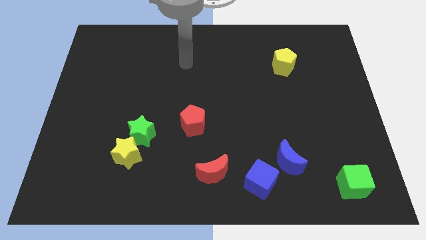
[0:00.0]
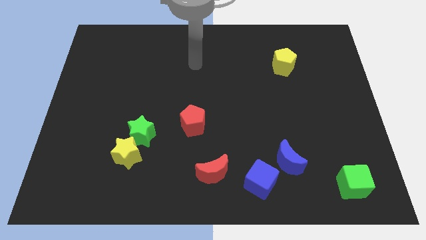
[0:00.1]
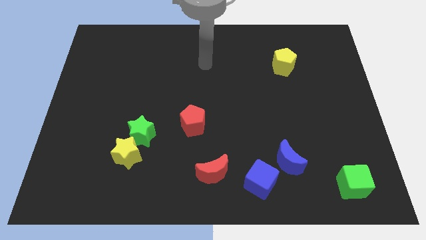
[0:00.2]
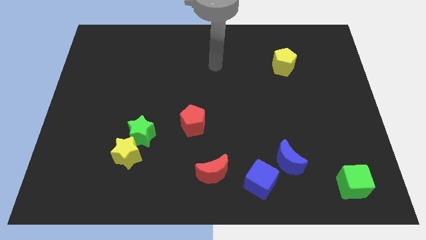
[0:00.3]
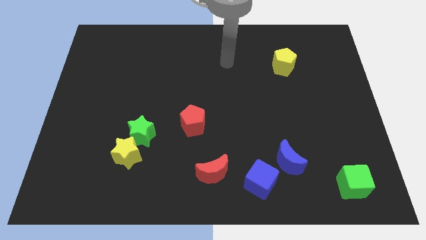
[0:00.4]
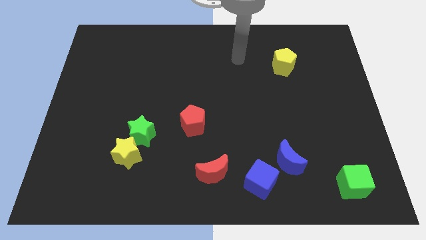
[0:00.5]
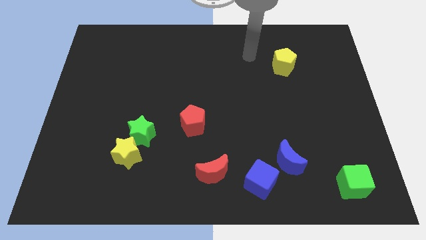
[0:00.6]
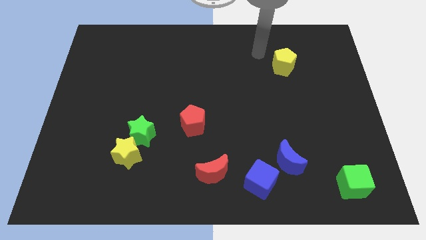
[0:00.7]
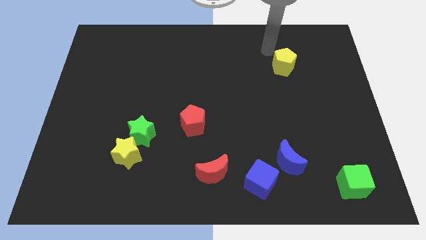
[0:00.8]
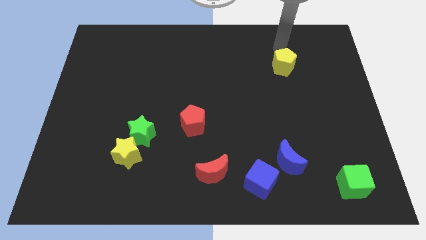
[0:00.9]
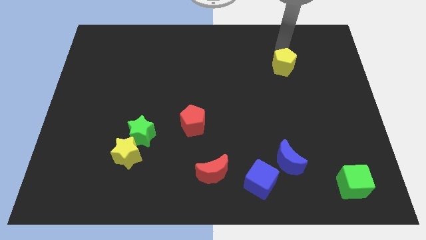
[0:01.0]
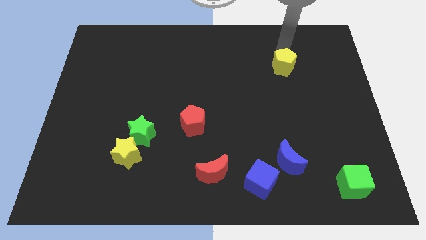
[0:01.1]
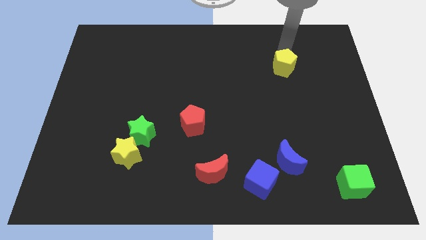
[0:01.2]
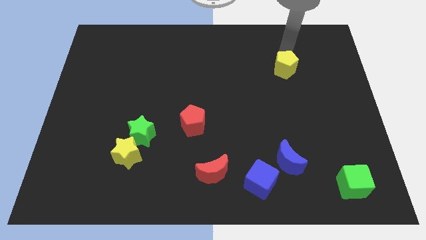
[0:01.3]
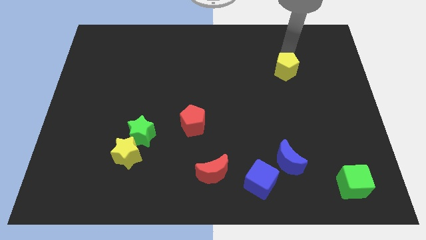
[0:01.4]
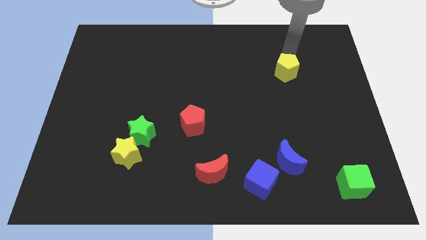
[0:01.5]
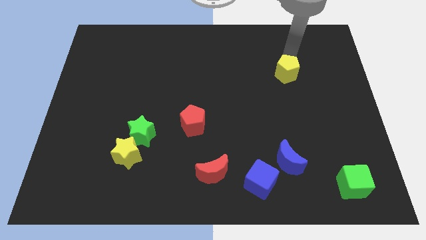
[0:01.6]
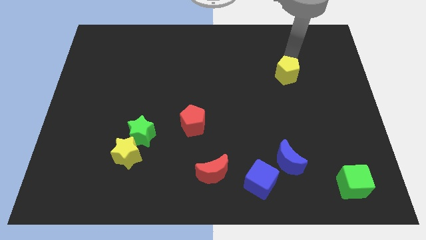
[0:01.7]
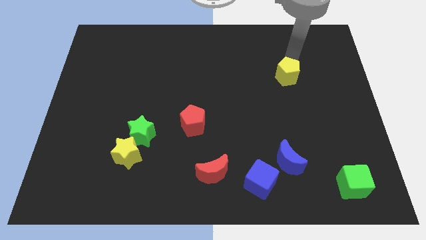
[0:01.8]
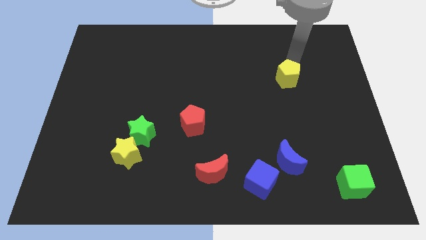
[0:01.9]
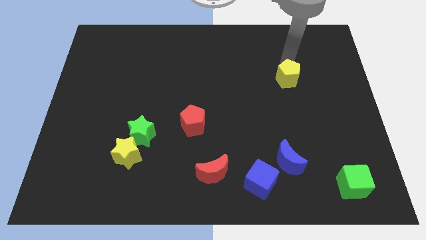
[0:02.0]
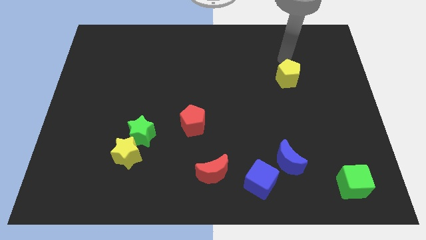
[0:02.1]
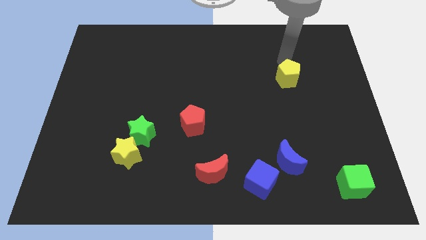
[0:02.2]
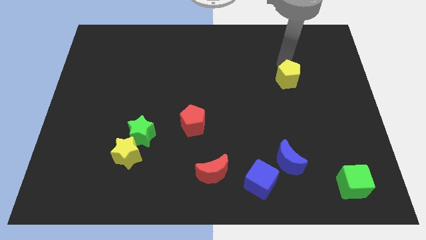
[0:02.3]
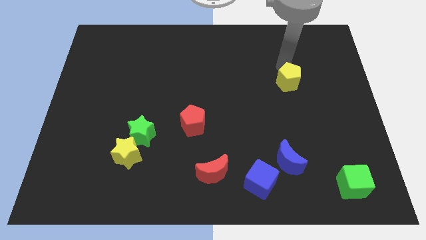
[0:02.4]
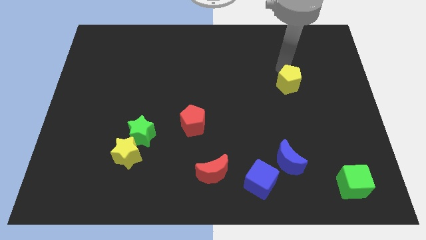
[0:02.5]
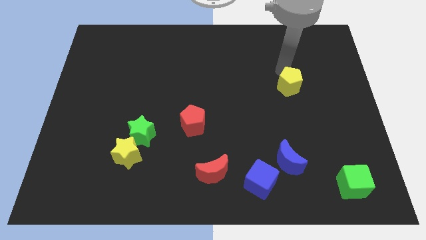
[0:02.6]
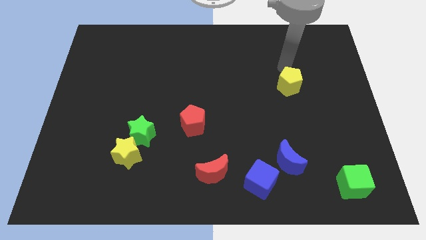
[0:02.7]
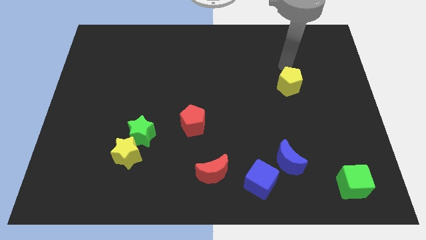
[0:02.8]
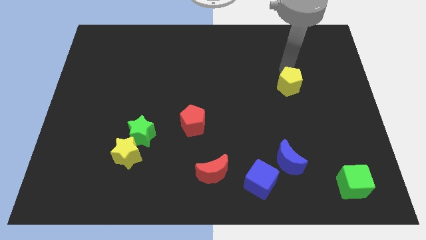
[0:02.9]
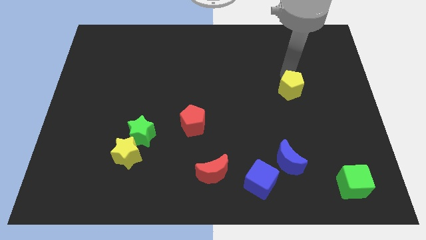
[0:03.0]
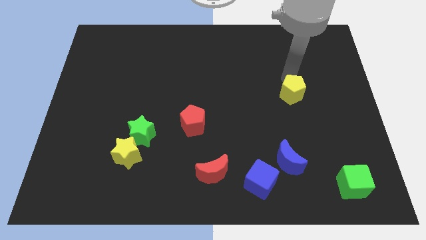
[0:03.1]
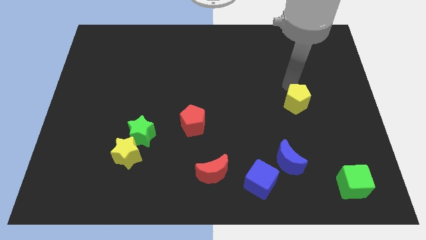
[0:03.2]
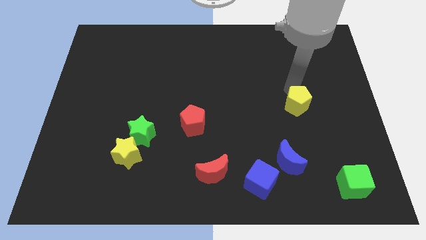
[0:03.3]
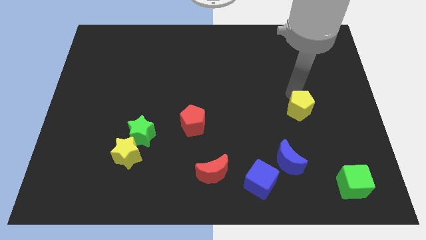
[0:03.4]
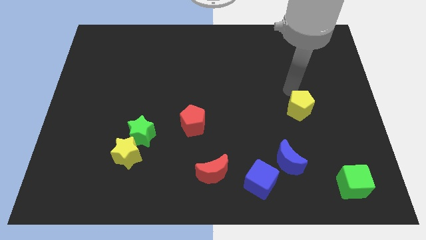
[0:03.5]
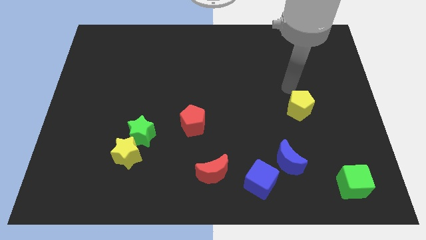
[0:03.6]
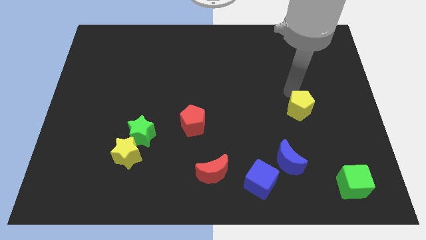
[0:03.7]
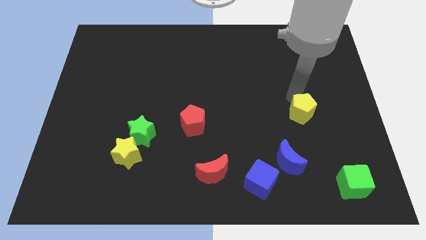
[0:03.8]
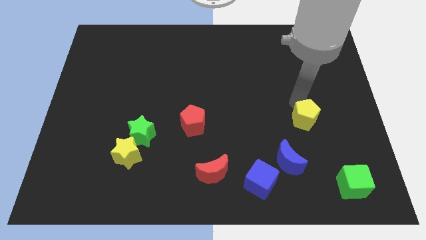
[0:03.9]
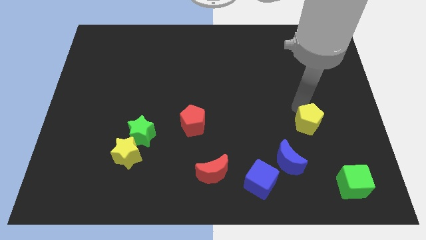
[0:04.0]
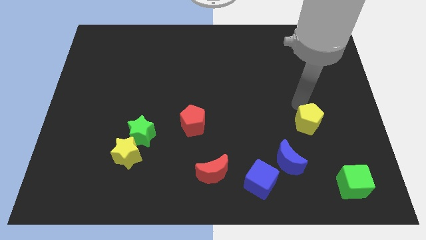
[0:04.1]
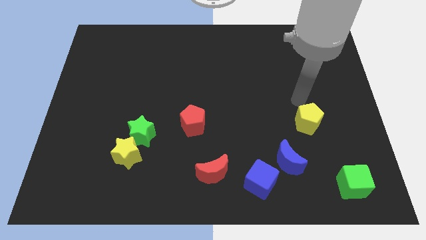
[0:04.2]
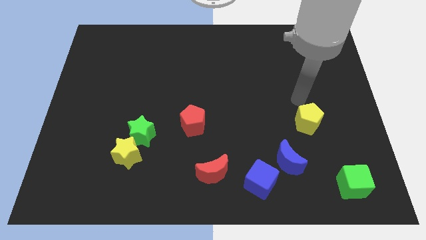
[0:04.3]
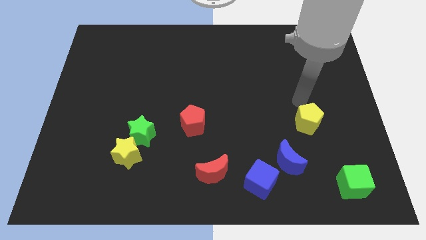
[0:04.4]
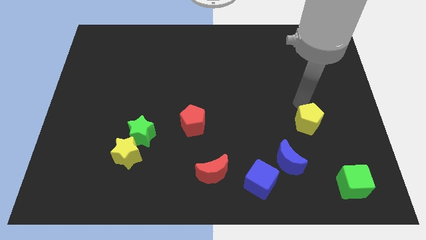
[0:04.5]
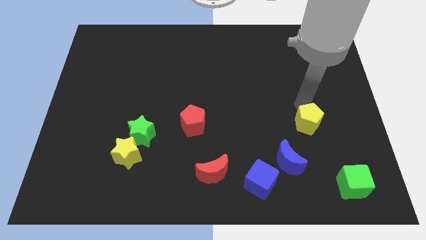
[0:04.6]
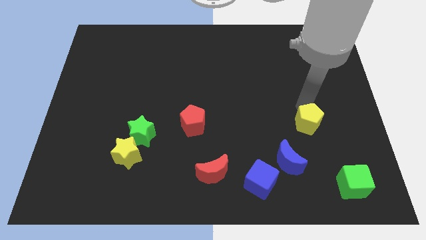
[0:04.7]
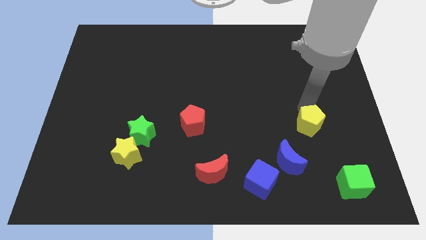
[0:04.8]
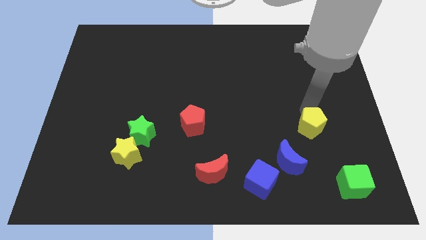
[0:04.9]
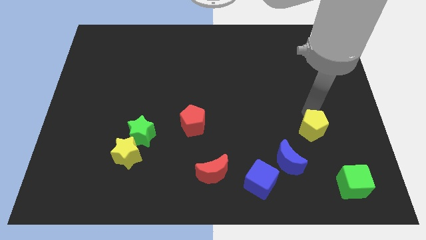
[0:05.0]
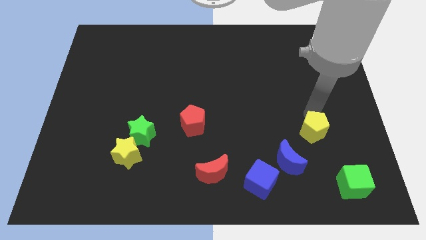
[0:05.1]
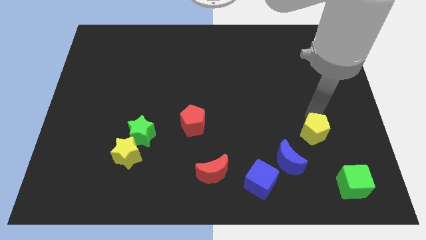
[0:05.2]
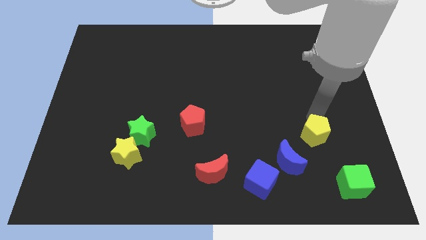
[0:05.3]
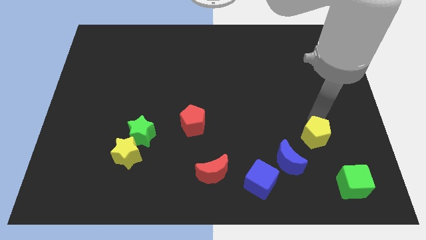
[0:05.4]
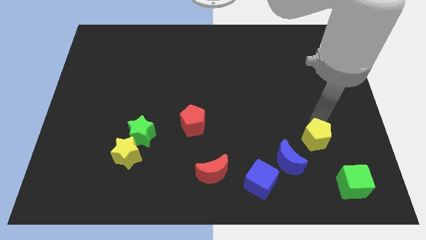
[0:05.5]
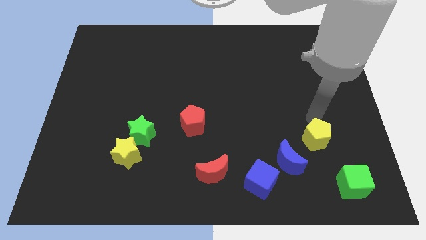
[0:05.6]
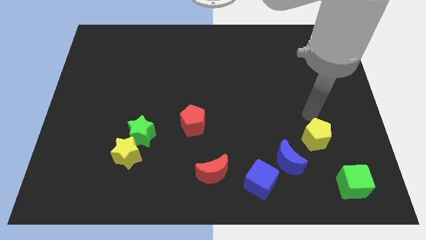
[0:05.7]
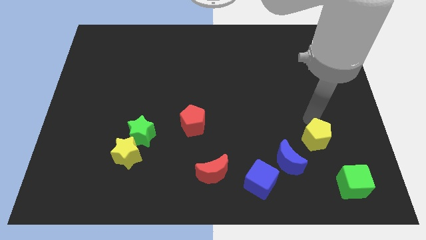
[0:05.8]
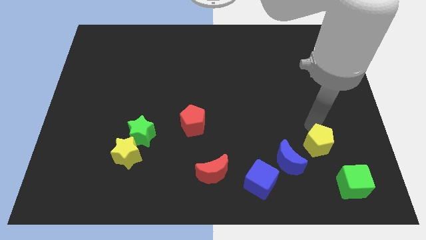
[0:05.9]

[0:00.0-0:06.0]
move the yellow pentagon to the top left of the green cube

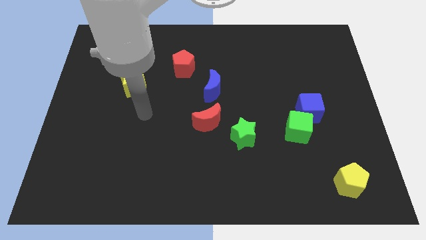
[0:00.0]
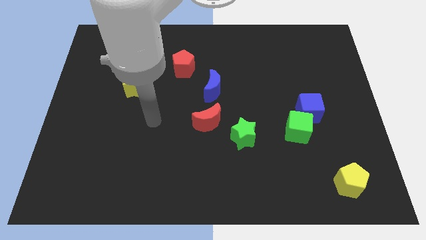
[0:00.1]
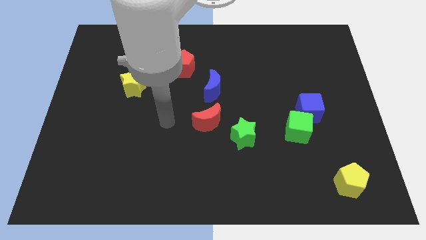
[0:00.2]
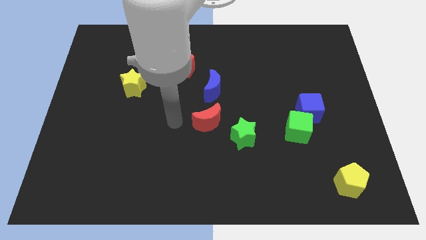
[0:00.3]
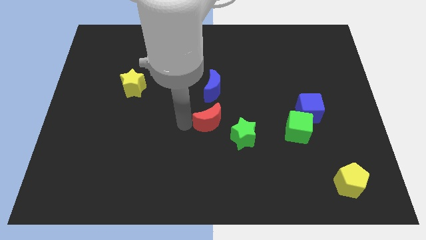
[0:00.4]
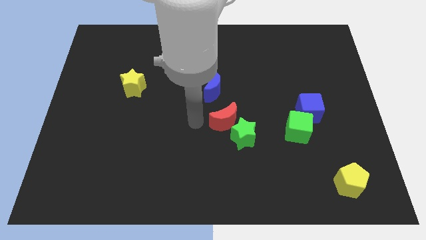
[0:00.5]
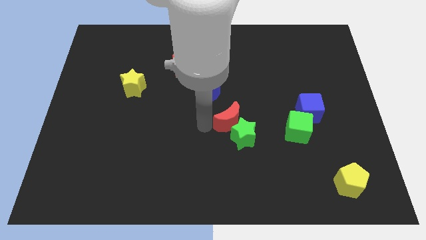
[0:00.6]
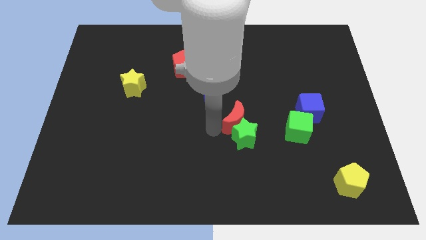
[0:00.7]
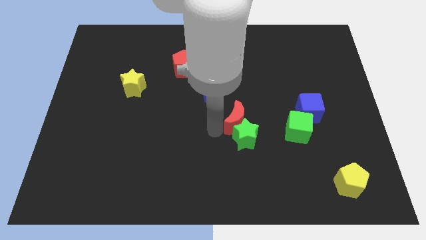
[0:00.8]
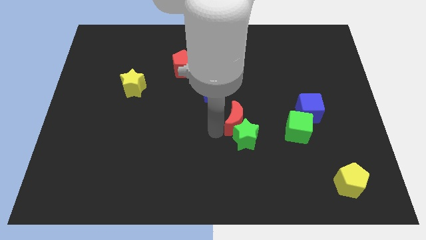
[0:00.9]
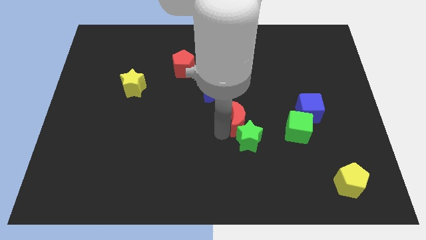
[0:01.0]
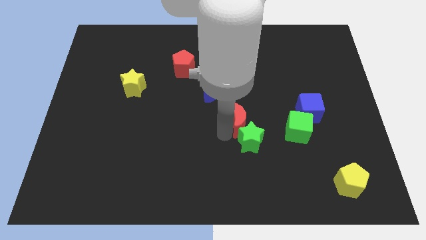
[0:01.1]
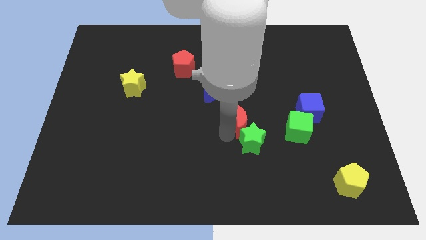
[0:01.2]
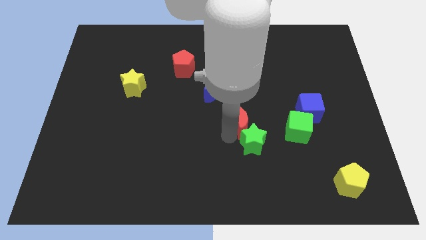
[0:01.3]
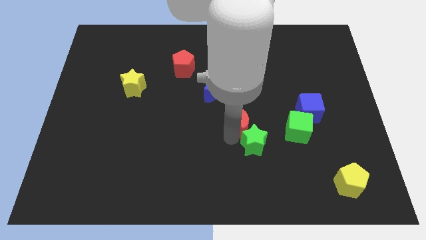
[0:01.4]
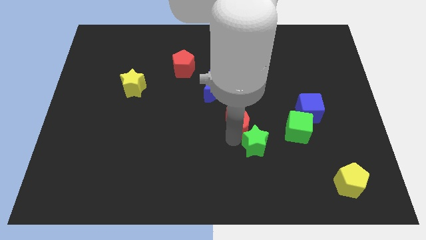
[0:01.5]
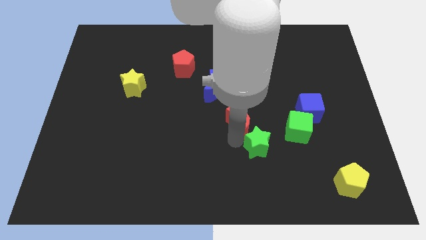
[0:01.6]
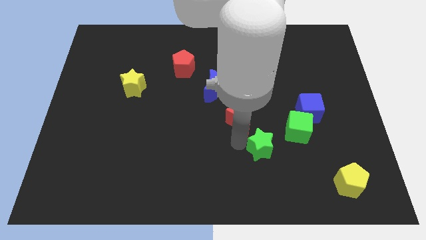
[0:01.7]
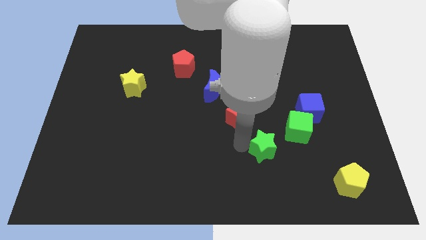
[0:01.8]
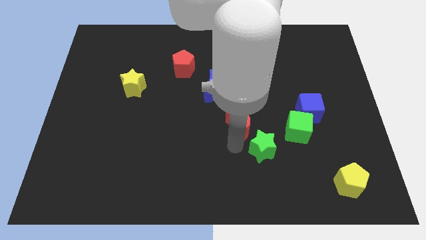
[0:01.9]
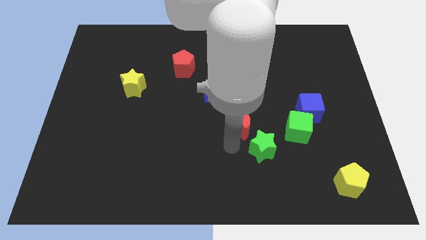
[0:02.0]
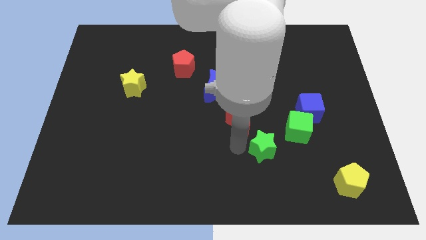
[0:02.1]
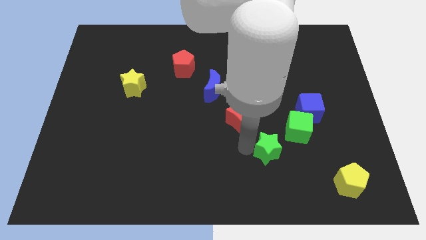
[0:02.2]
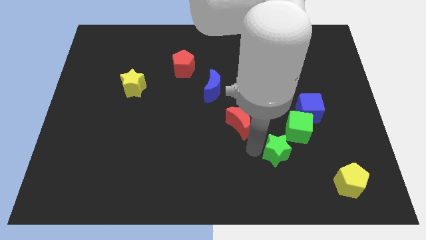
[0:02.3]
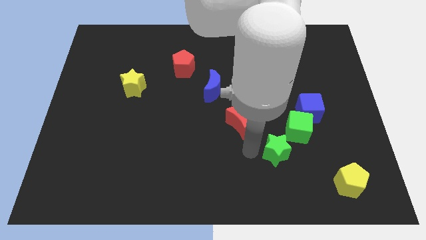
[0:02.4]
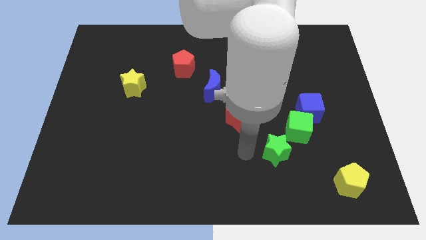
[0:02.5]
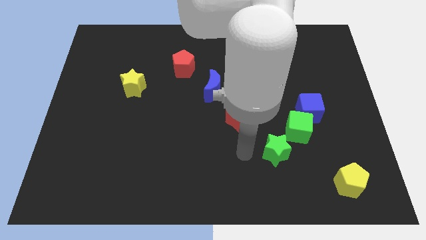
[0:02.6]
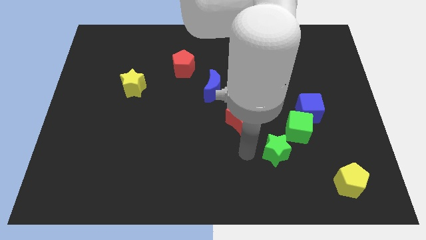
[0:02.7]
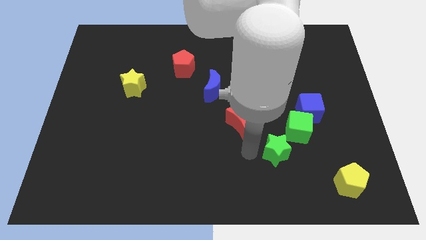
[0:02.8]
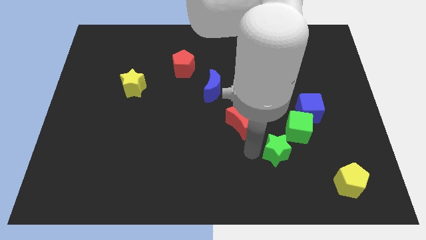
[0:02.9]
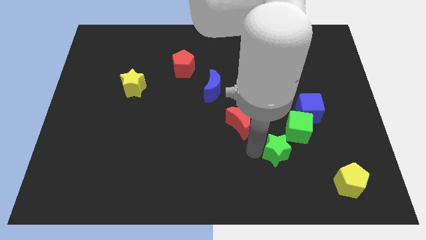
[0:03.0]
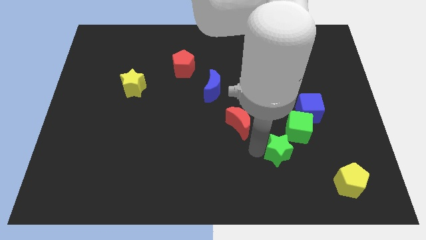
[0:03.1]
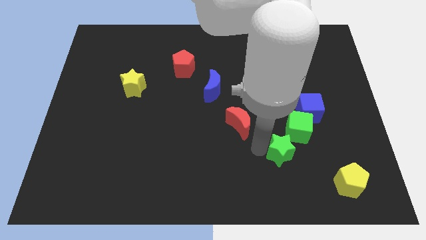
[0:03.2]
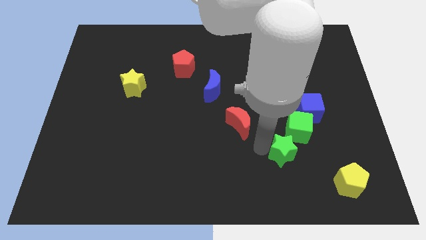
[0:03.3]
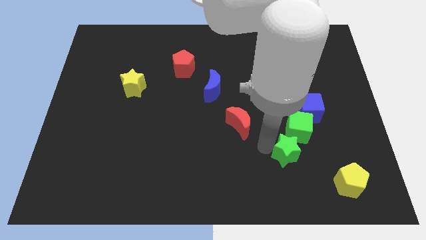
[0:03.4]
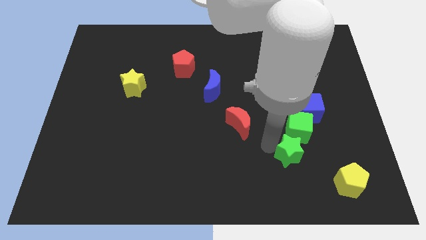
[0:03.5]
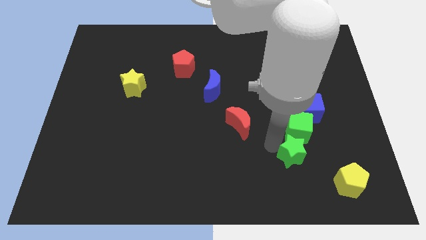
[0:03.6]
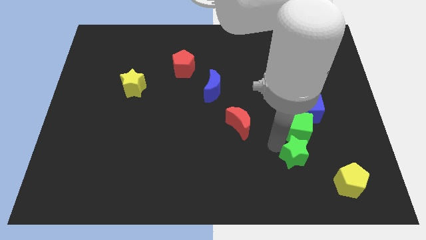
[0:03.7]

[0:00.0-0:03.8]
slide the green star to the top left of the yellow pentagon
